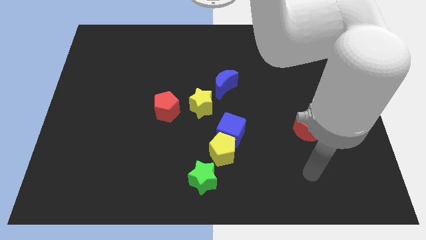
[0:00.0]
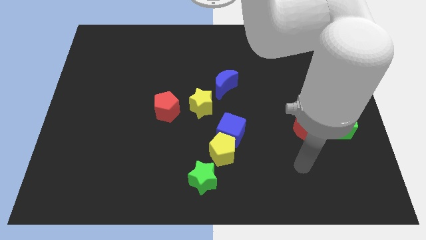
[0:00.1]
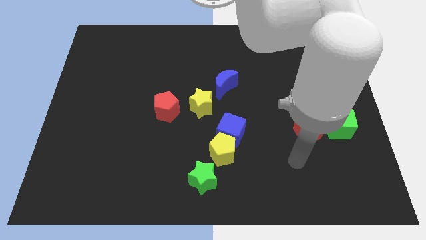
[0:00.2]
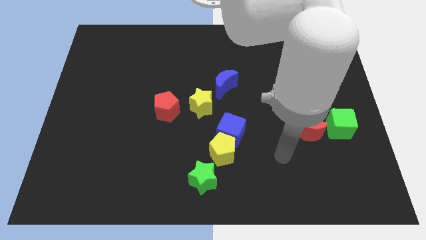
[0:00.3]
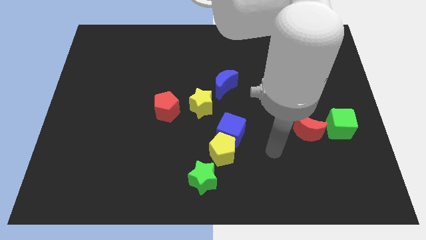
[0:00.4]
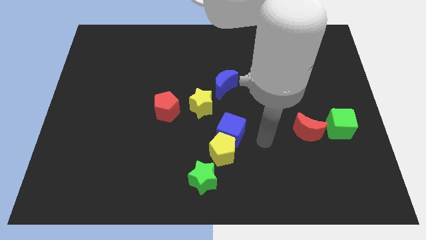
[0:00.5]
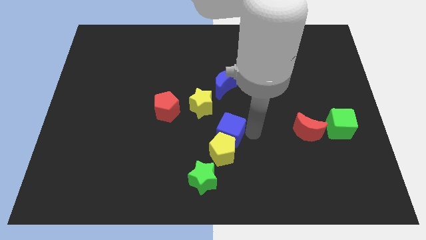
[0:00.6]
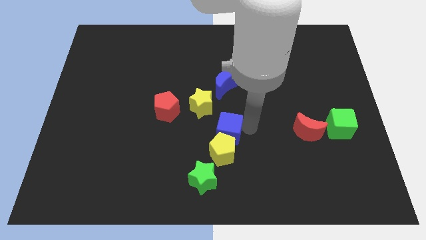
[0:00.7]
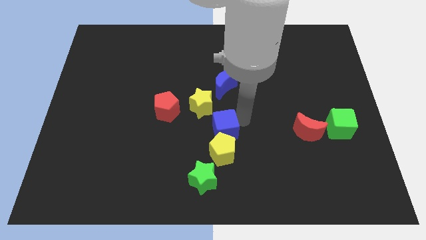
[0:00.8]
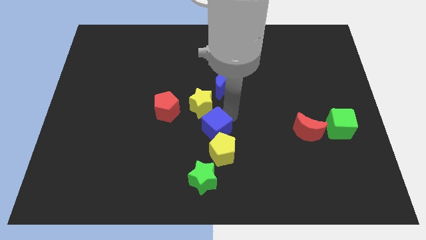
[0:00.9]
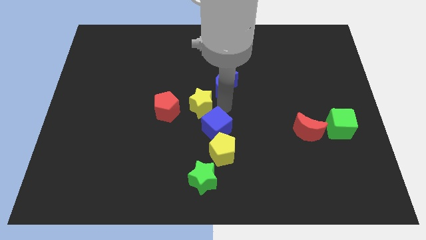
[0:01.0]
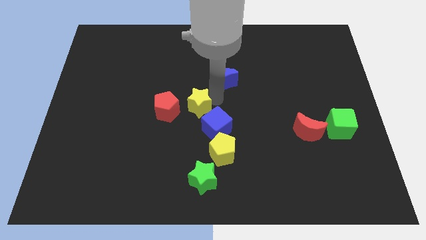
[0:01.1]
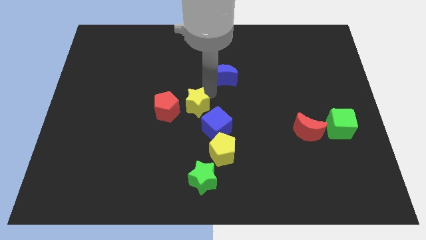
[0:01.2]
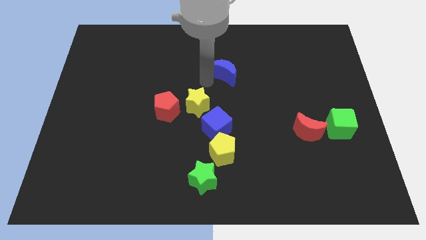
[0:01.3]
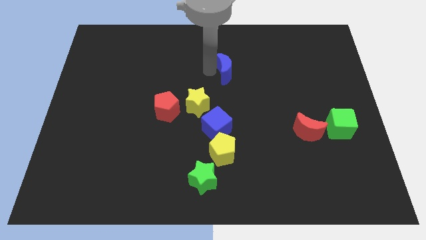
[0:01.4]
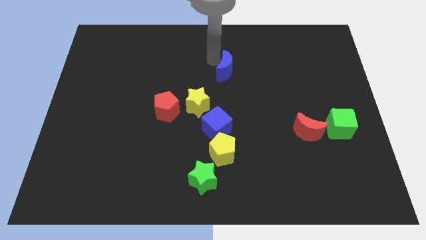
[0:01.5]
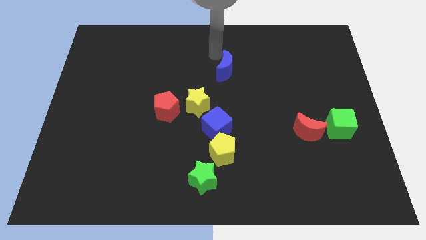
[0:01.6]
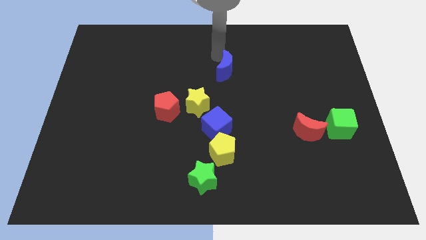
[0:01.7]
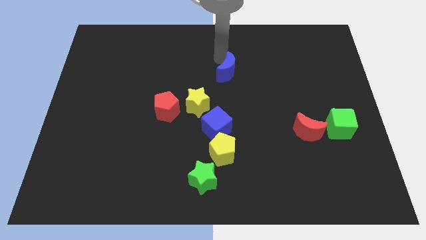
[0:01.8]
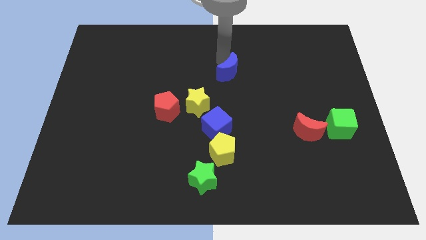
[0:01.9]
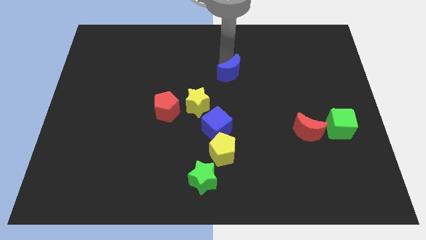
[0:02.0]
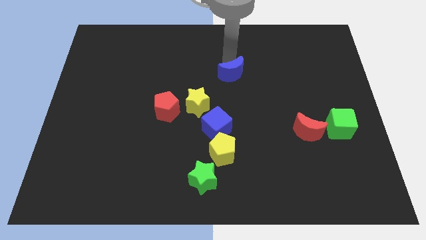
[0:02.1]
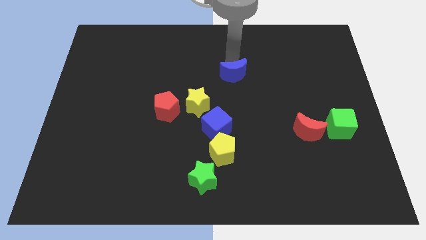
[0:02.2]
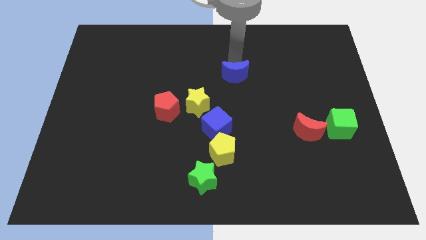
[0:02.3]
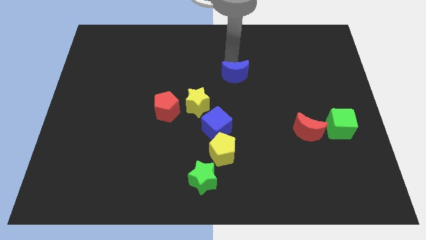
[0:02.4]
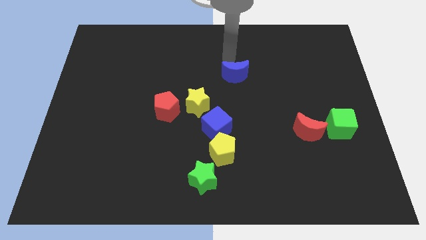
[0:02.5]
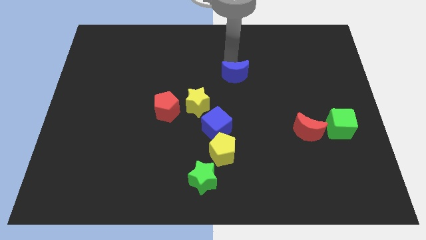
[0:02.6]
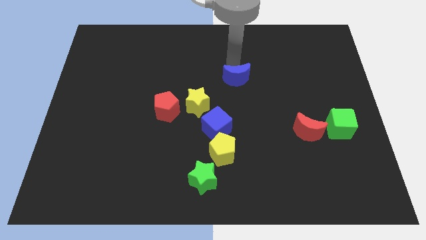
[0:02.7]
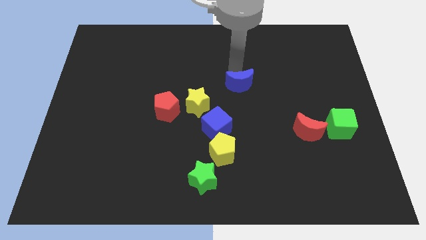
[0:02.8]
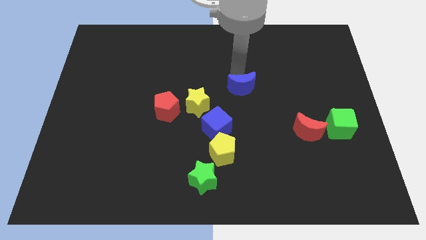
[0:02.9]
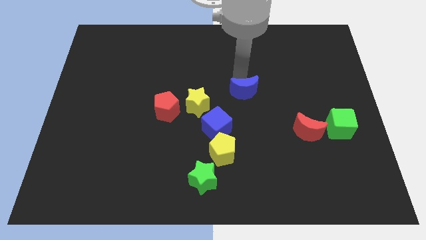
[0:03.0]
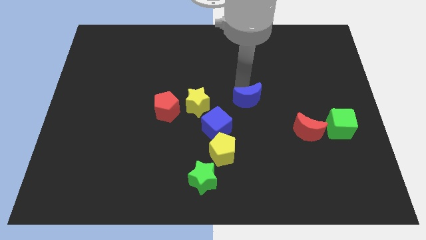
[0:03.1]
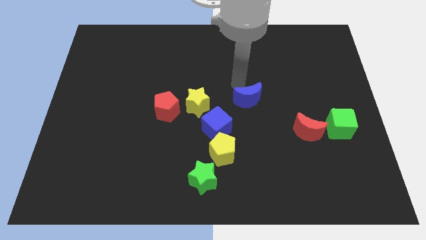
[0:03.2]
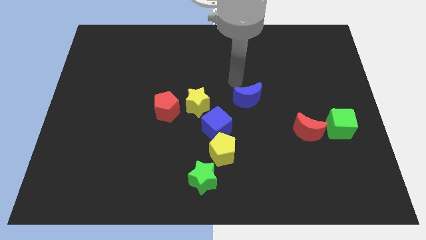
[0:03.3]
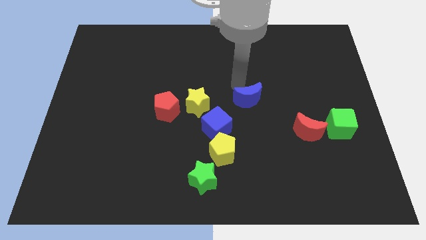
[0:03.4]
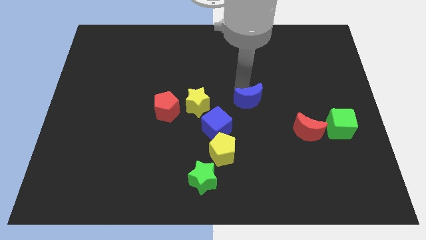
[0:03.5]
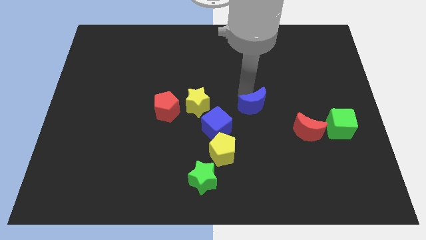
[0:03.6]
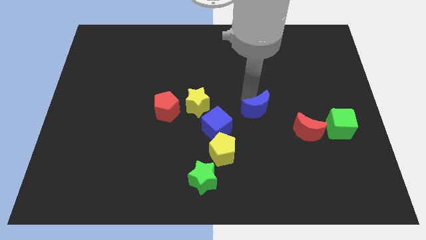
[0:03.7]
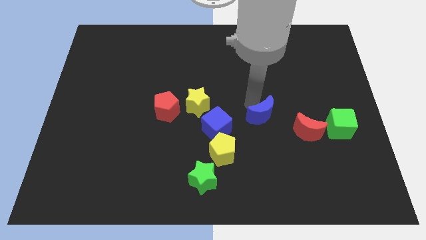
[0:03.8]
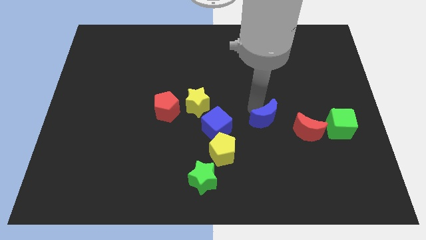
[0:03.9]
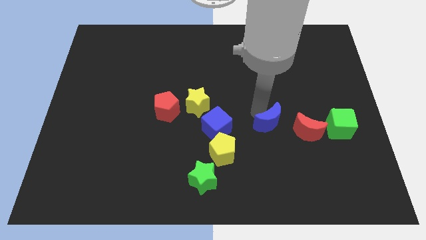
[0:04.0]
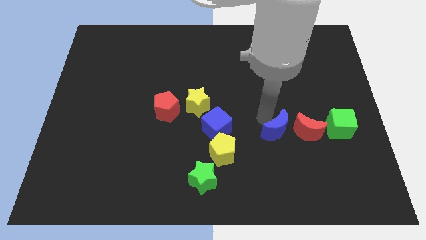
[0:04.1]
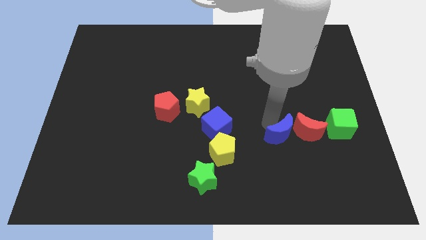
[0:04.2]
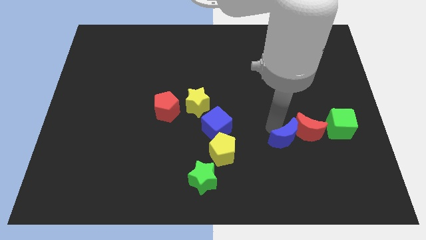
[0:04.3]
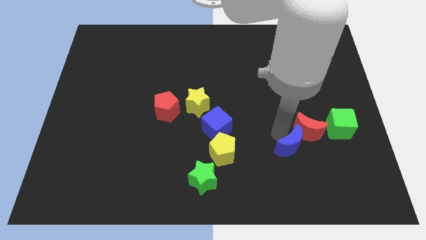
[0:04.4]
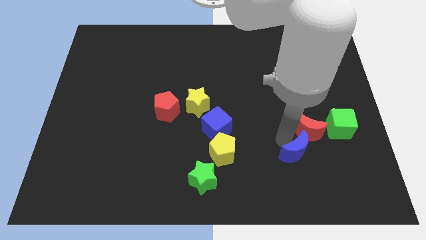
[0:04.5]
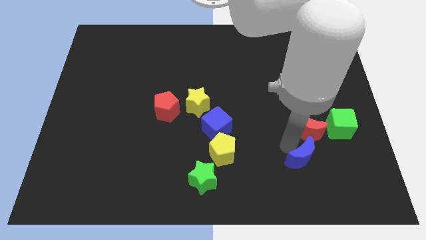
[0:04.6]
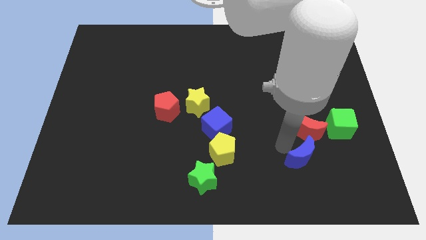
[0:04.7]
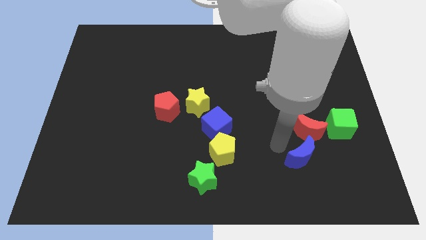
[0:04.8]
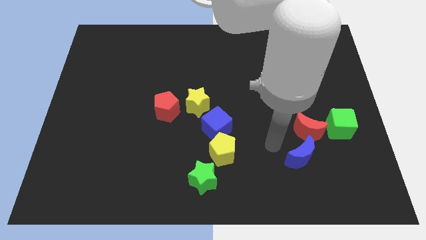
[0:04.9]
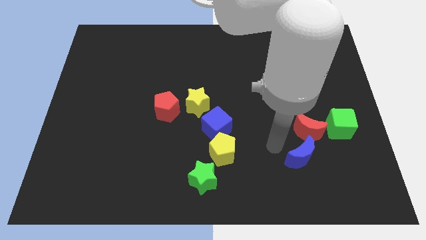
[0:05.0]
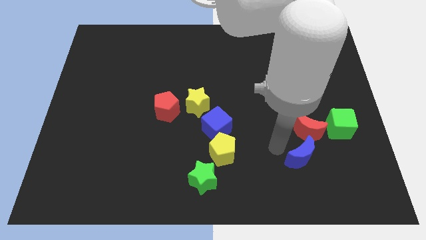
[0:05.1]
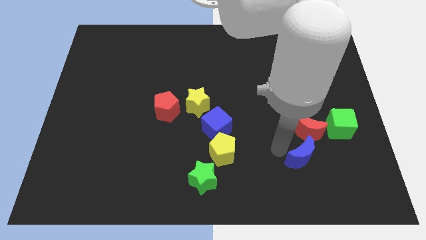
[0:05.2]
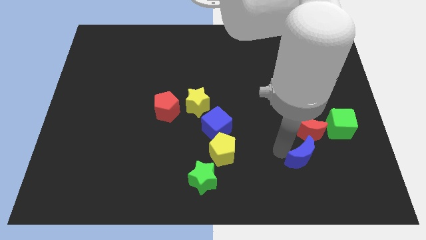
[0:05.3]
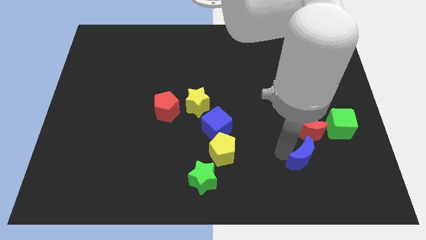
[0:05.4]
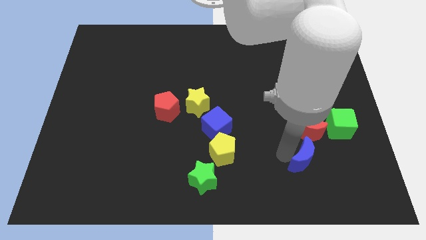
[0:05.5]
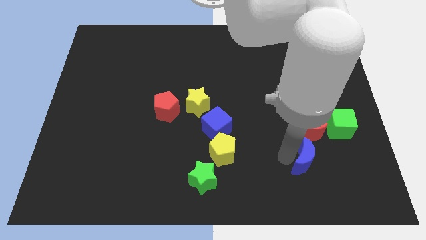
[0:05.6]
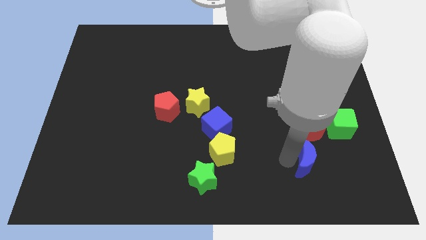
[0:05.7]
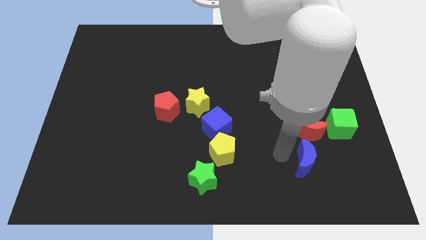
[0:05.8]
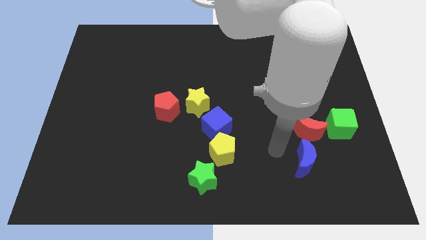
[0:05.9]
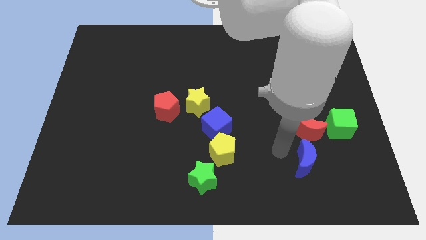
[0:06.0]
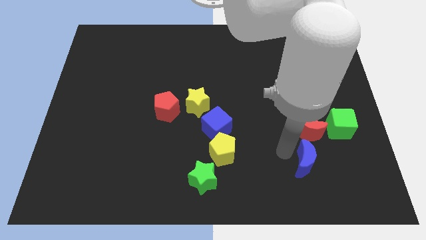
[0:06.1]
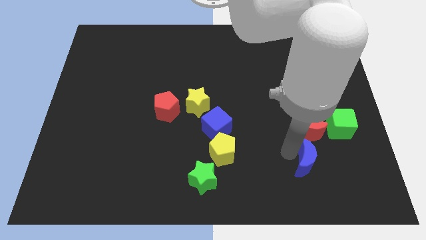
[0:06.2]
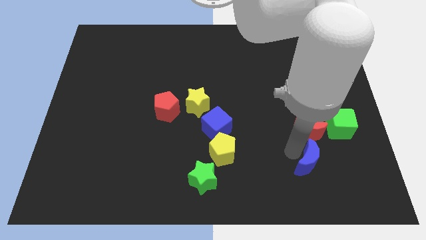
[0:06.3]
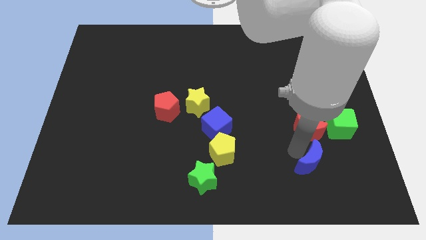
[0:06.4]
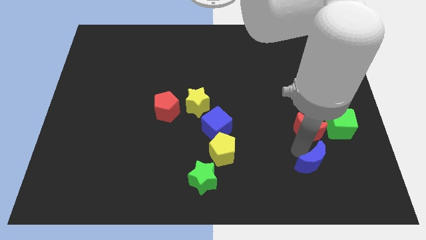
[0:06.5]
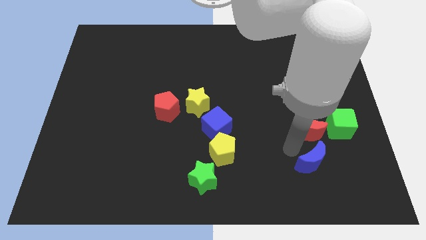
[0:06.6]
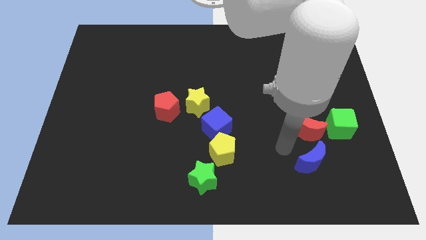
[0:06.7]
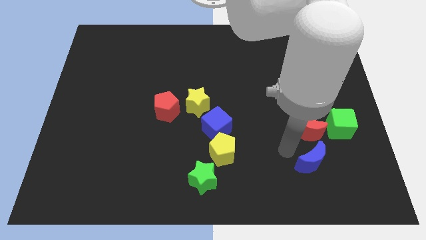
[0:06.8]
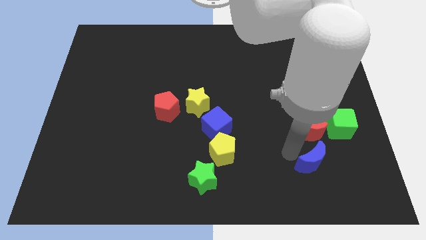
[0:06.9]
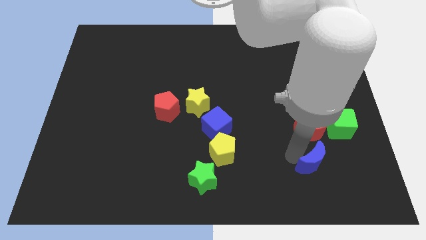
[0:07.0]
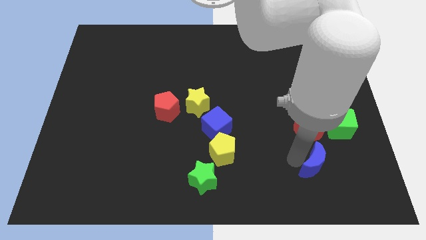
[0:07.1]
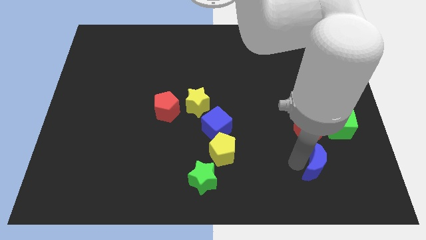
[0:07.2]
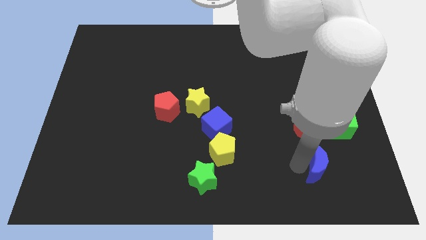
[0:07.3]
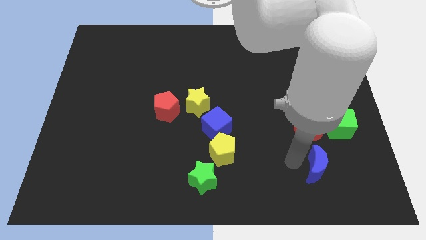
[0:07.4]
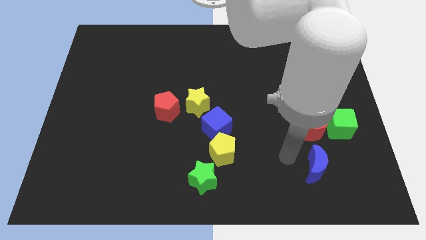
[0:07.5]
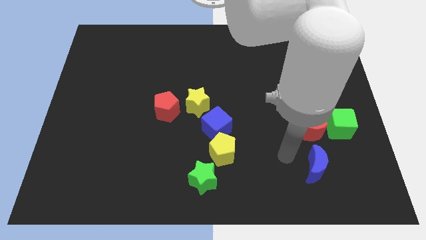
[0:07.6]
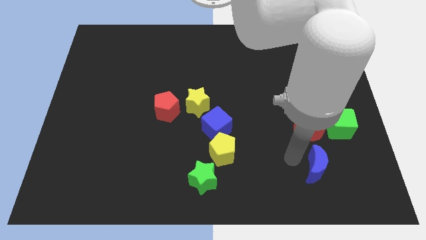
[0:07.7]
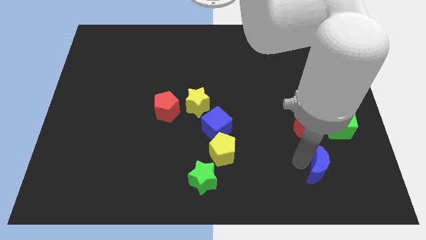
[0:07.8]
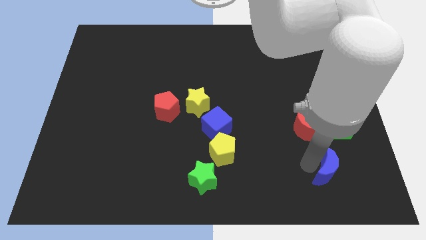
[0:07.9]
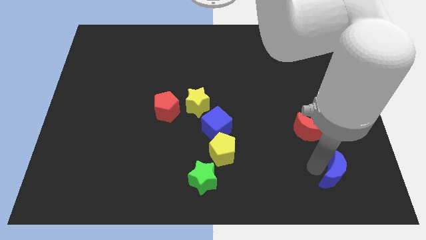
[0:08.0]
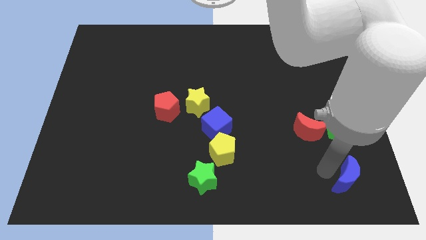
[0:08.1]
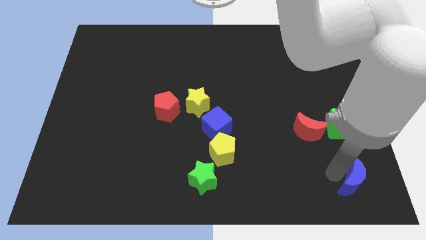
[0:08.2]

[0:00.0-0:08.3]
move the blue moon to the bottom right of the board
